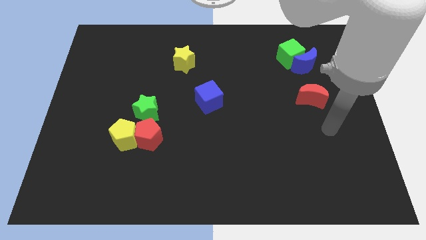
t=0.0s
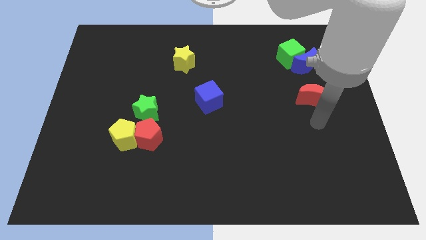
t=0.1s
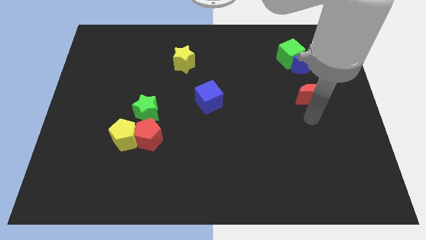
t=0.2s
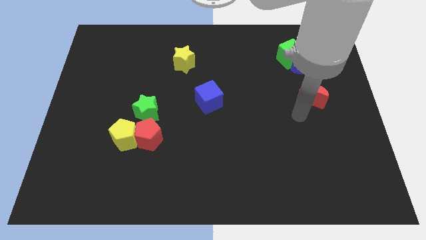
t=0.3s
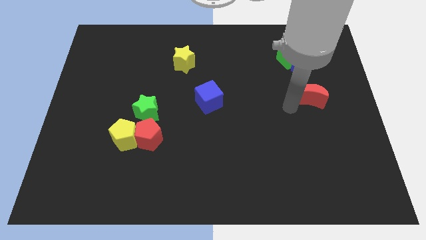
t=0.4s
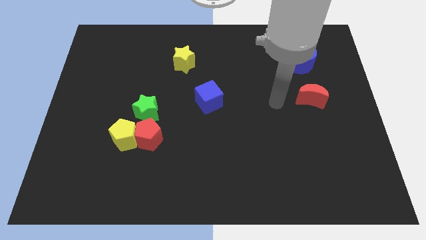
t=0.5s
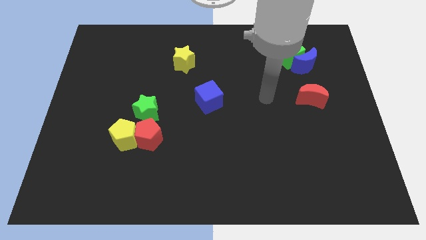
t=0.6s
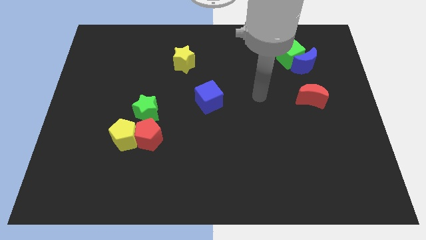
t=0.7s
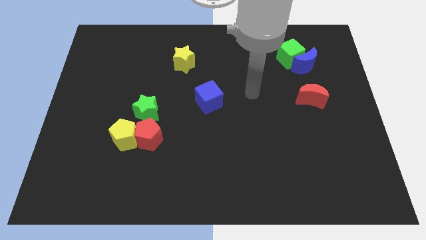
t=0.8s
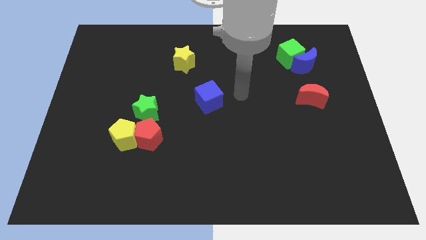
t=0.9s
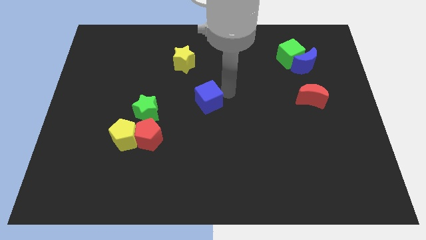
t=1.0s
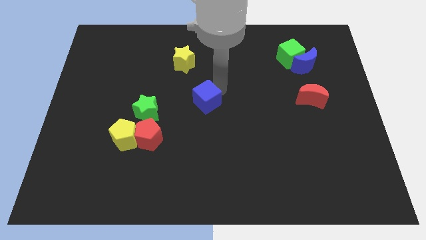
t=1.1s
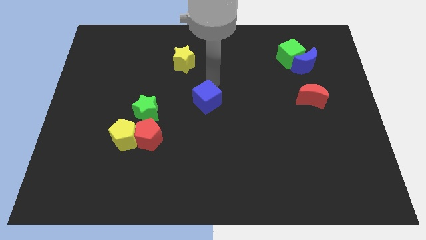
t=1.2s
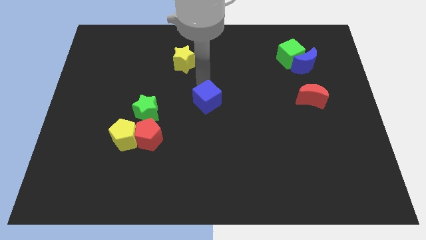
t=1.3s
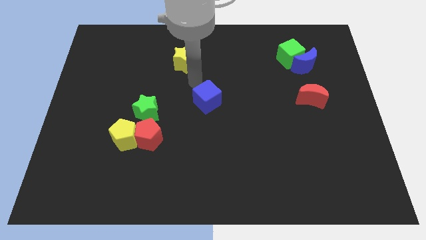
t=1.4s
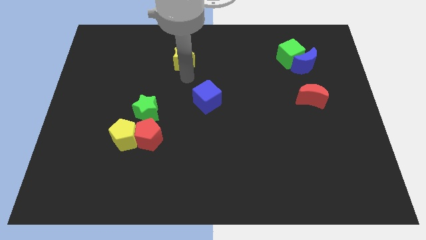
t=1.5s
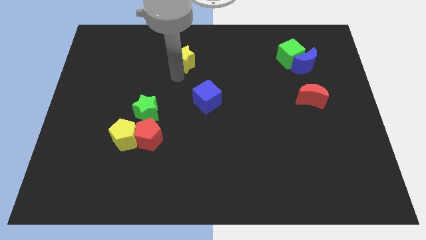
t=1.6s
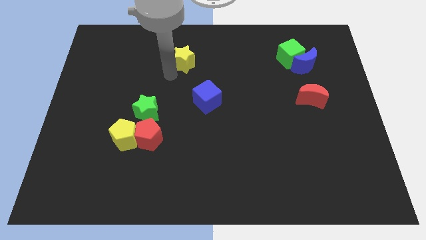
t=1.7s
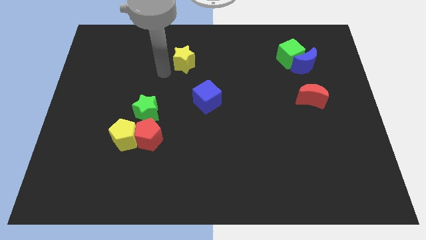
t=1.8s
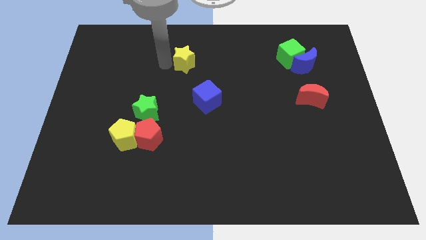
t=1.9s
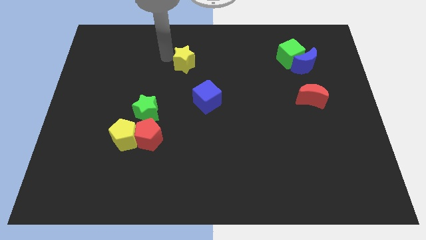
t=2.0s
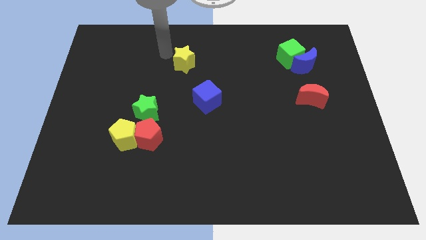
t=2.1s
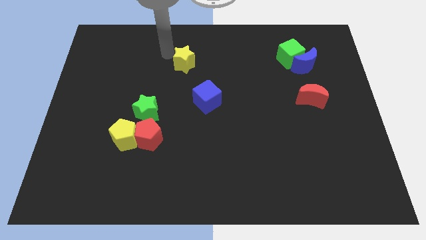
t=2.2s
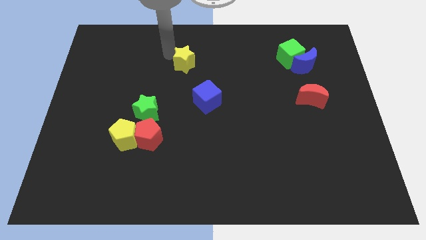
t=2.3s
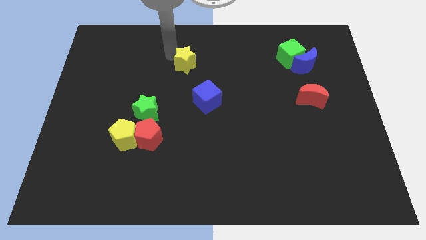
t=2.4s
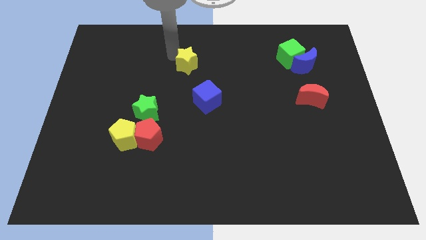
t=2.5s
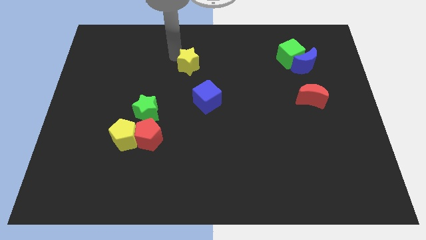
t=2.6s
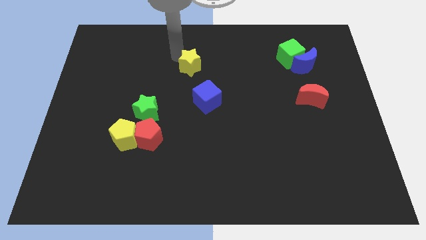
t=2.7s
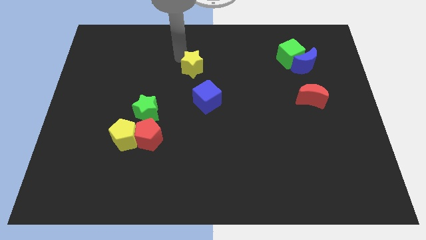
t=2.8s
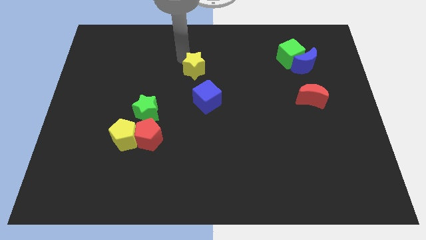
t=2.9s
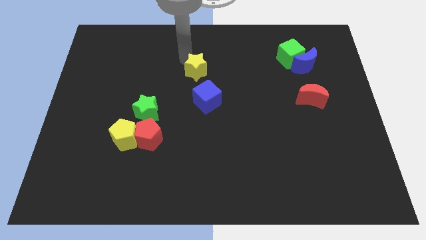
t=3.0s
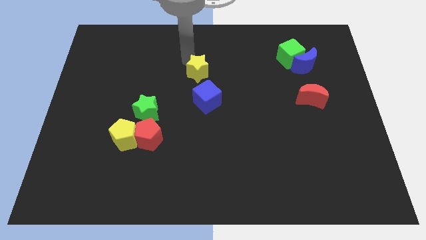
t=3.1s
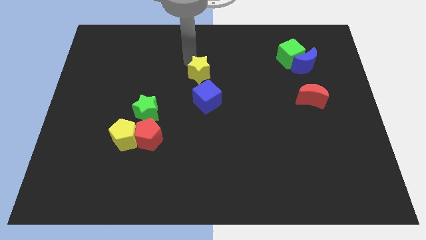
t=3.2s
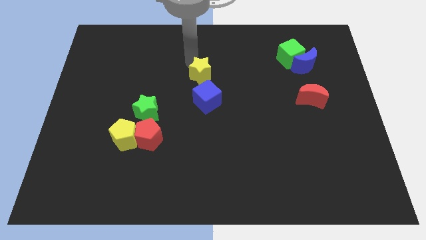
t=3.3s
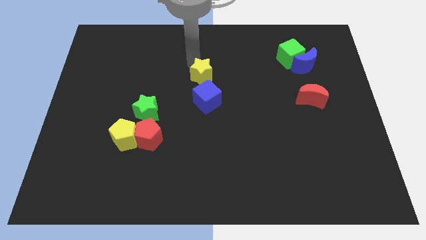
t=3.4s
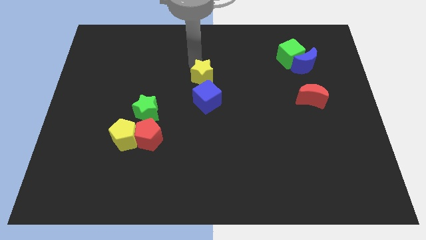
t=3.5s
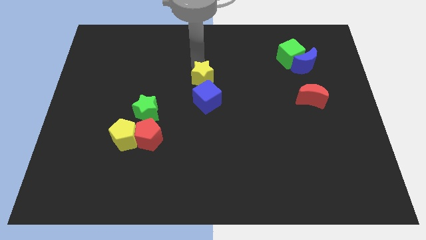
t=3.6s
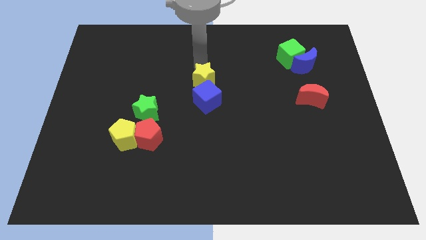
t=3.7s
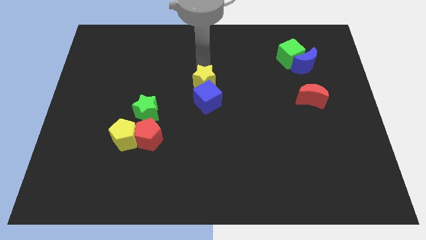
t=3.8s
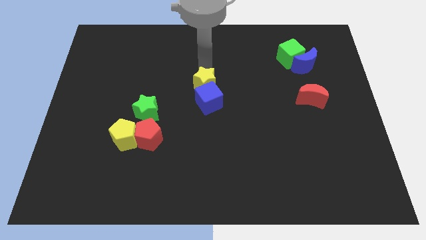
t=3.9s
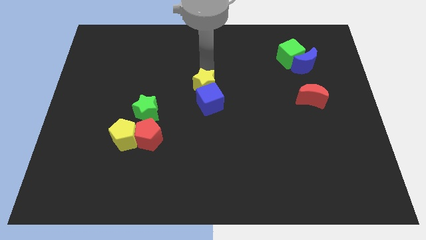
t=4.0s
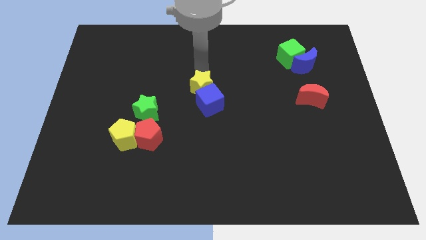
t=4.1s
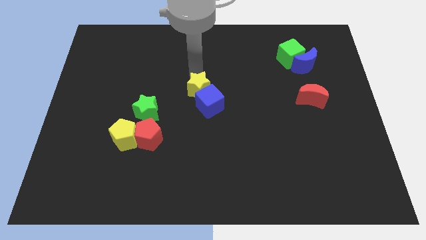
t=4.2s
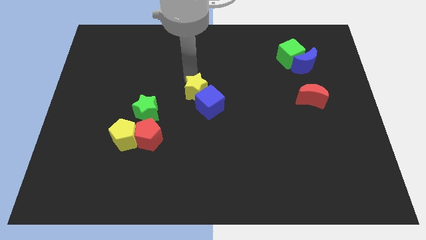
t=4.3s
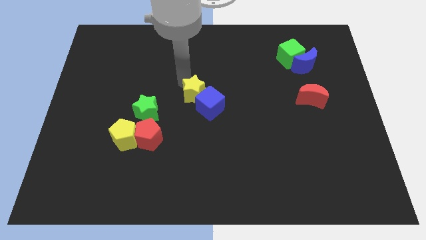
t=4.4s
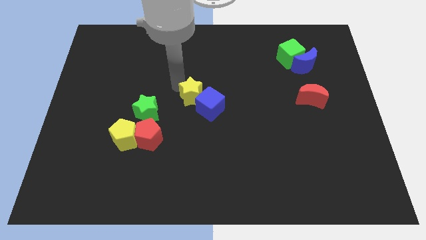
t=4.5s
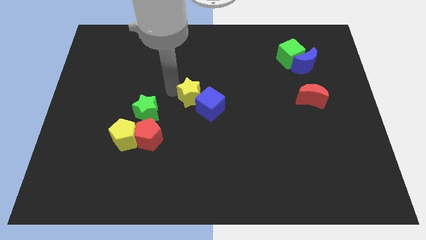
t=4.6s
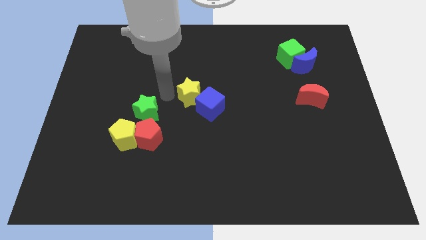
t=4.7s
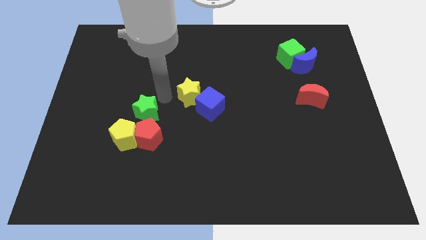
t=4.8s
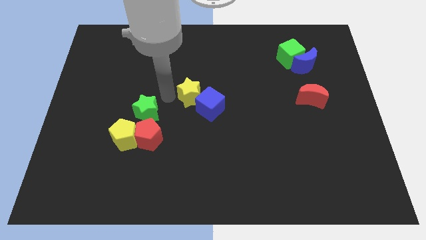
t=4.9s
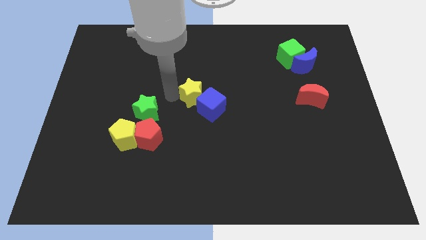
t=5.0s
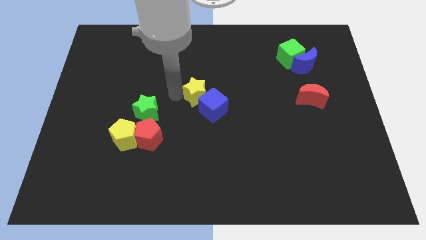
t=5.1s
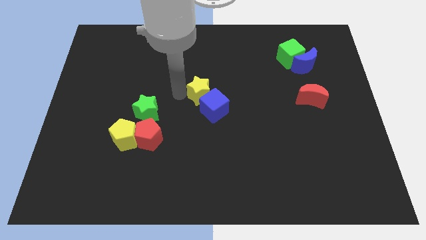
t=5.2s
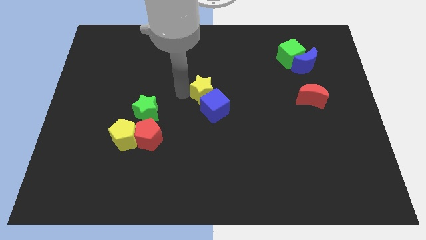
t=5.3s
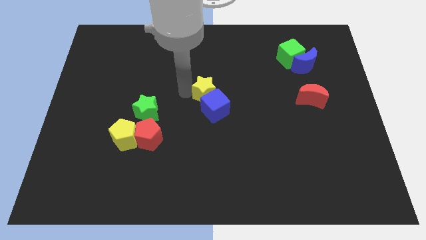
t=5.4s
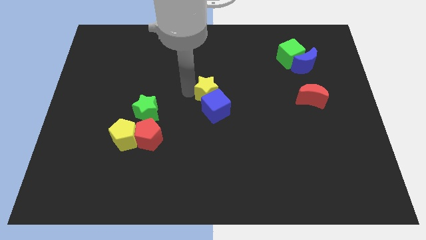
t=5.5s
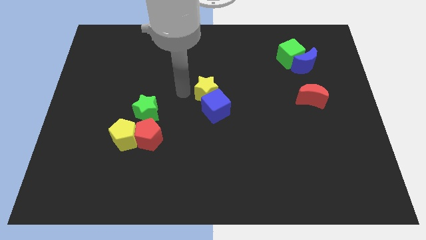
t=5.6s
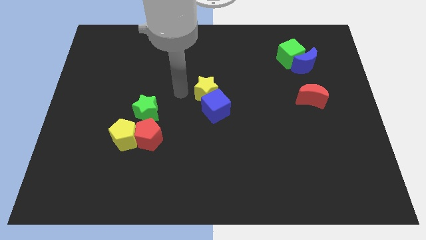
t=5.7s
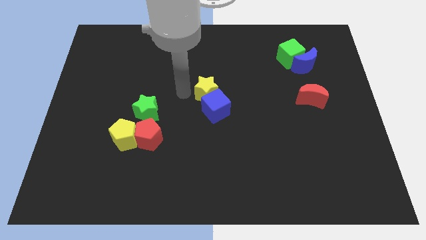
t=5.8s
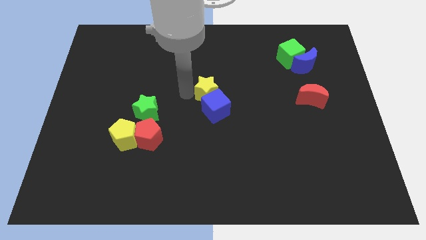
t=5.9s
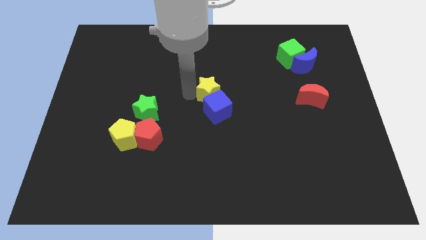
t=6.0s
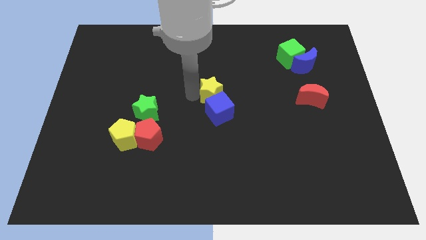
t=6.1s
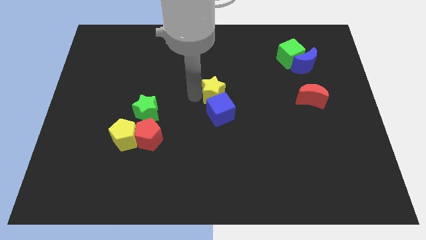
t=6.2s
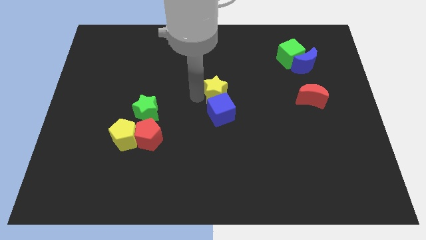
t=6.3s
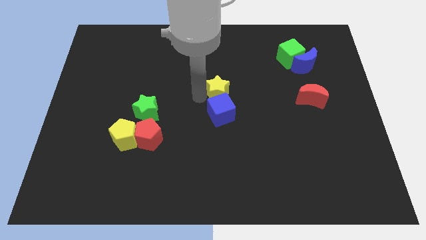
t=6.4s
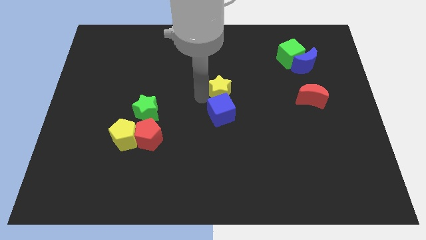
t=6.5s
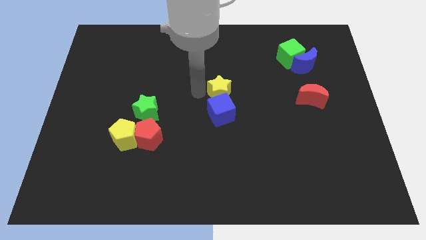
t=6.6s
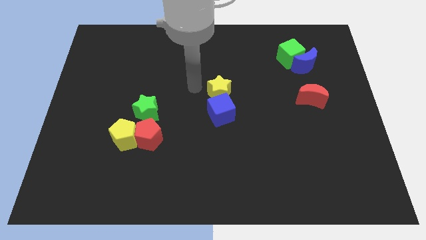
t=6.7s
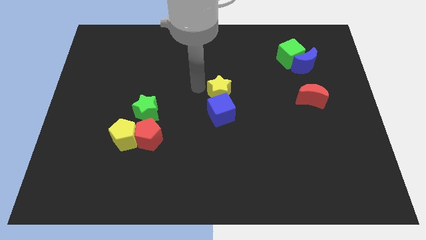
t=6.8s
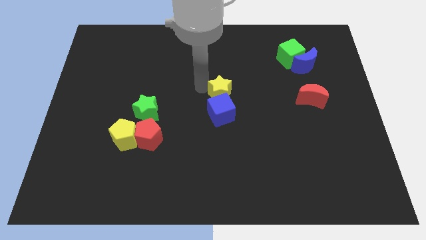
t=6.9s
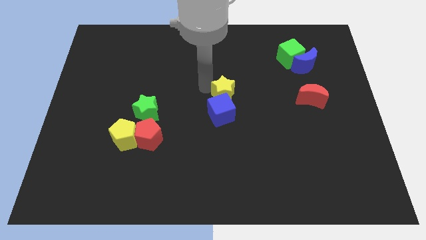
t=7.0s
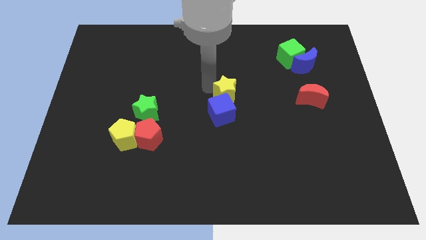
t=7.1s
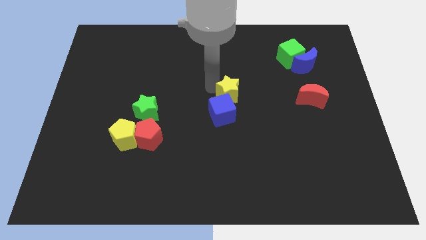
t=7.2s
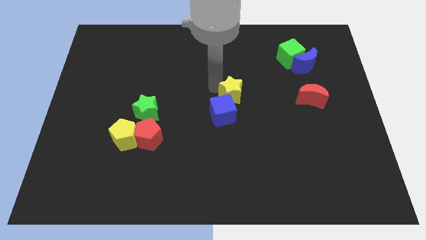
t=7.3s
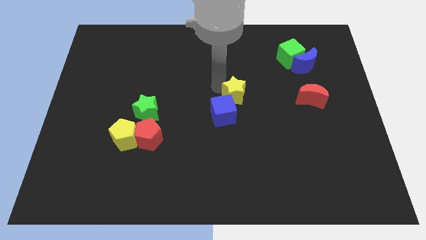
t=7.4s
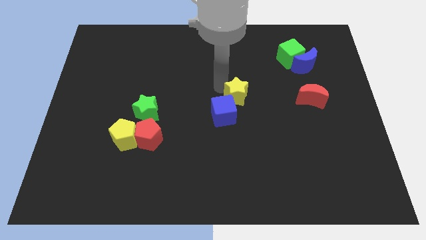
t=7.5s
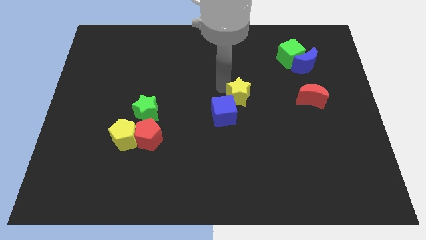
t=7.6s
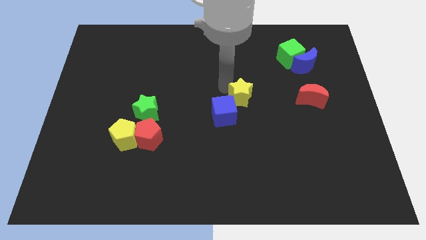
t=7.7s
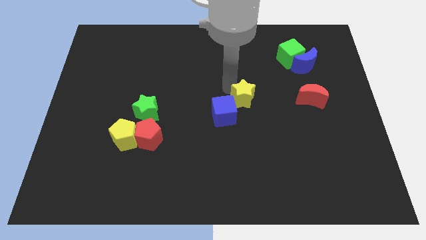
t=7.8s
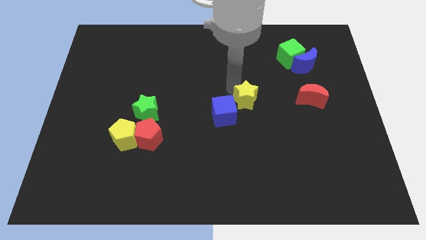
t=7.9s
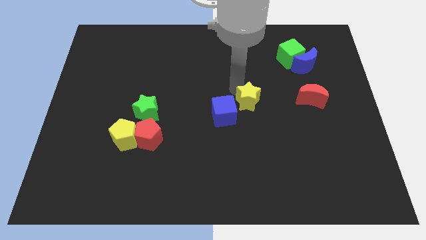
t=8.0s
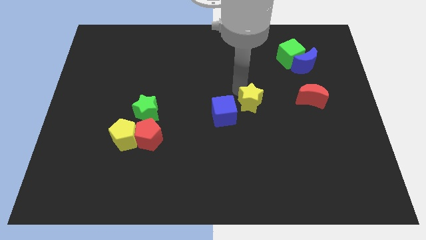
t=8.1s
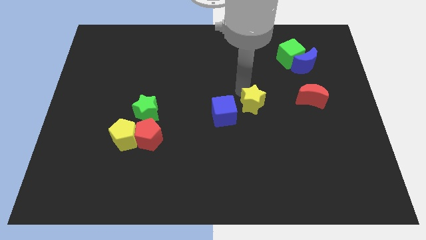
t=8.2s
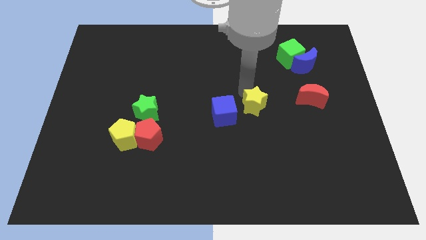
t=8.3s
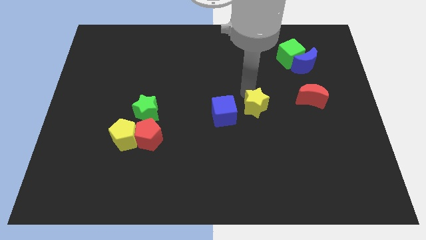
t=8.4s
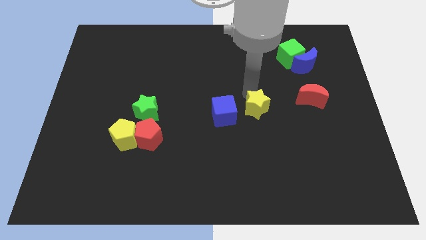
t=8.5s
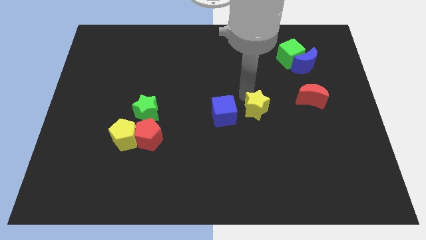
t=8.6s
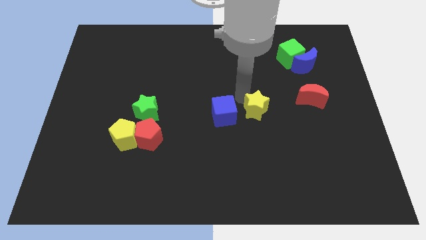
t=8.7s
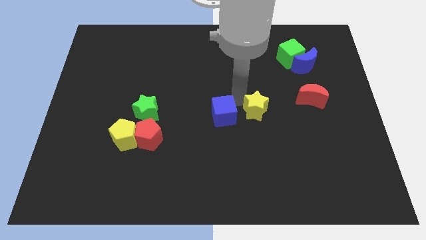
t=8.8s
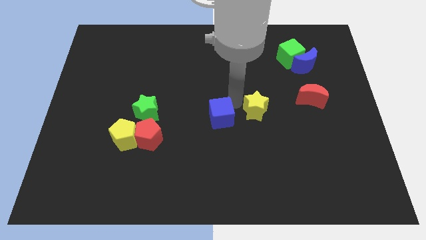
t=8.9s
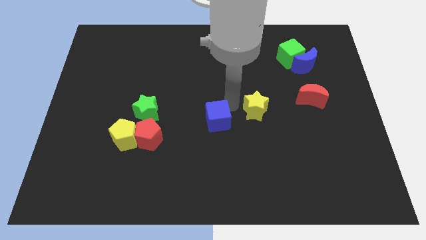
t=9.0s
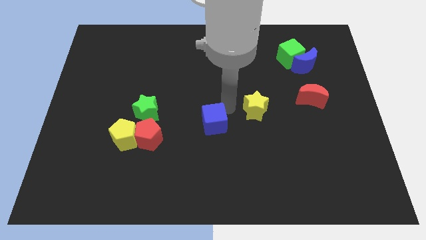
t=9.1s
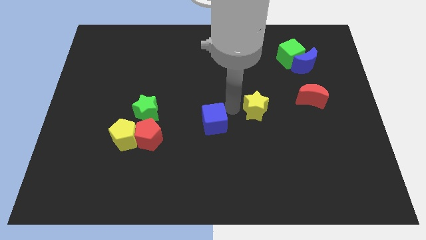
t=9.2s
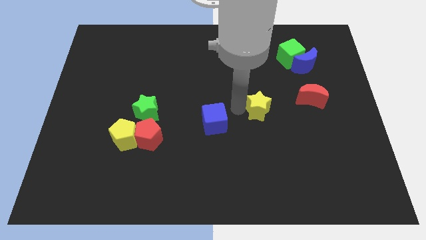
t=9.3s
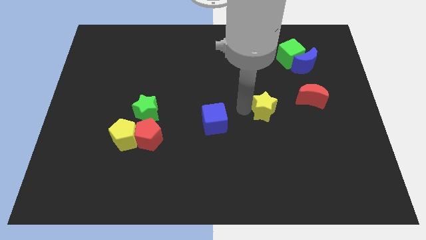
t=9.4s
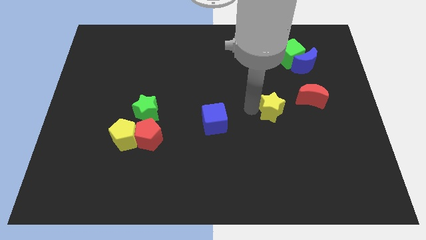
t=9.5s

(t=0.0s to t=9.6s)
push the yellow star to the bottom left of the red moon
